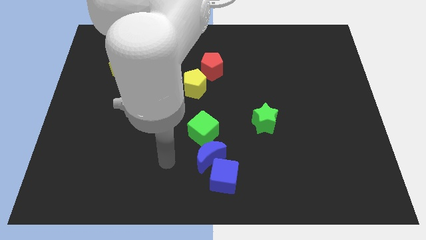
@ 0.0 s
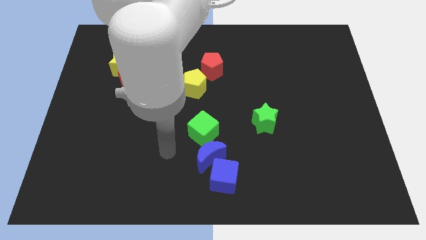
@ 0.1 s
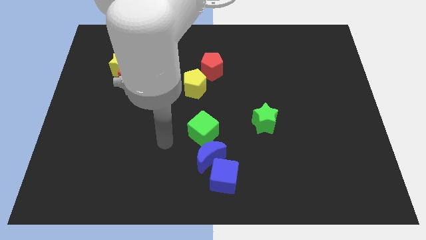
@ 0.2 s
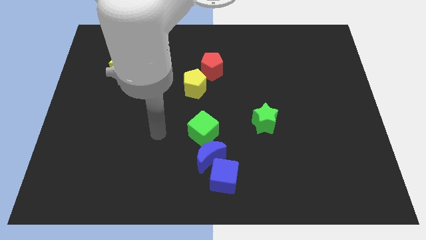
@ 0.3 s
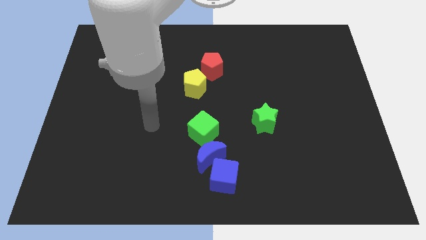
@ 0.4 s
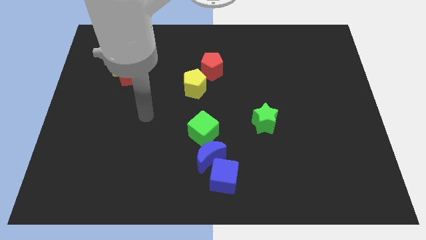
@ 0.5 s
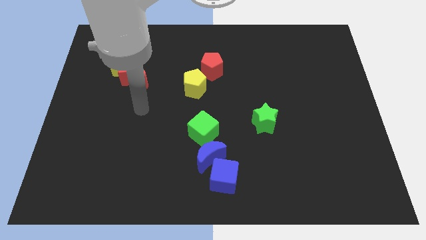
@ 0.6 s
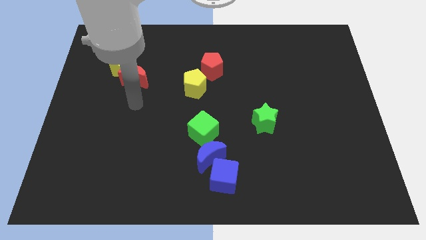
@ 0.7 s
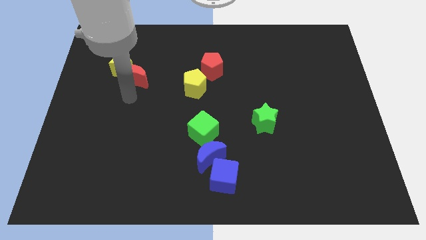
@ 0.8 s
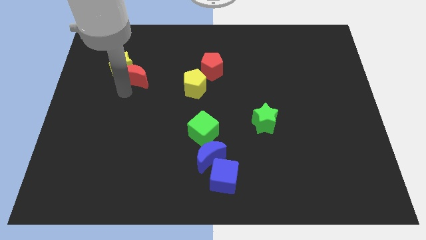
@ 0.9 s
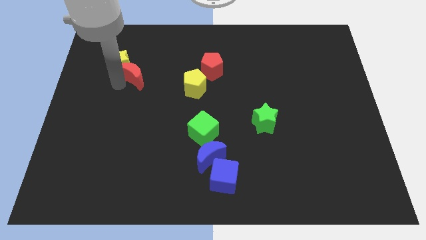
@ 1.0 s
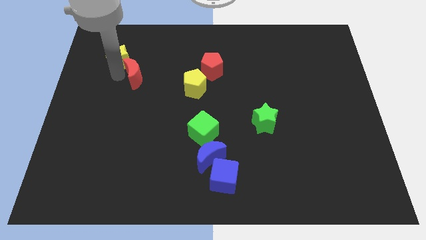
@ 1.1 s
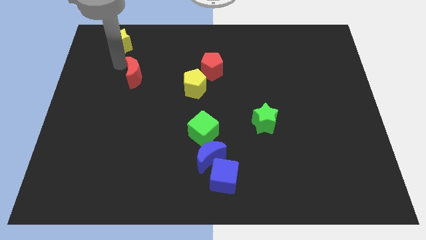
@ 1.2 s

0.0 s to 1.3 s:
move the red moon away from the yellow star

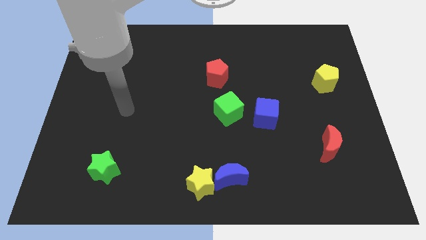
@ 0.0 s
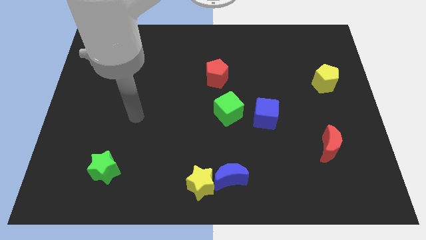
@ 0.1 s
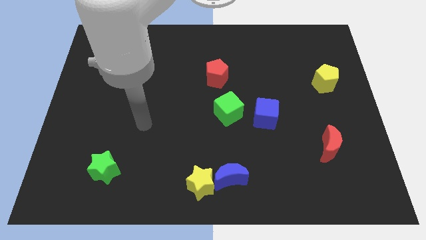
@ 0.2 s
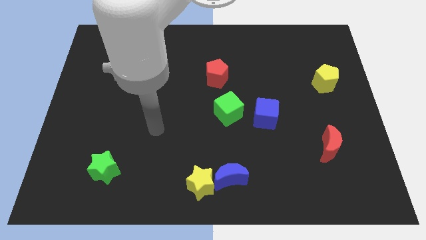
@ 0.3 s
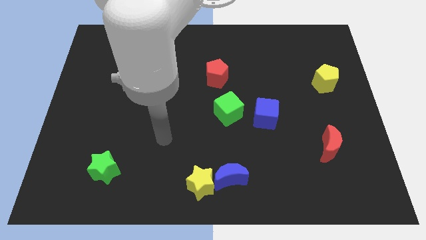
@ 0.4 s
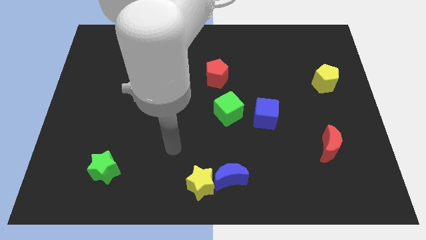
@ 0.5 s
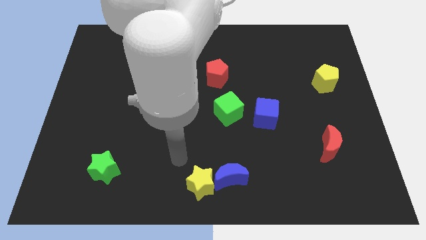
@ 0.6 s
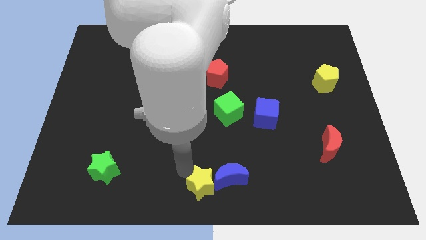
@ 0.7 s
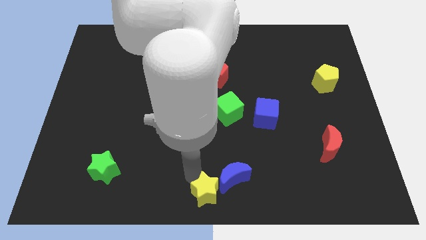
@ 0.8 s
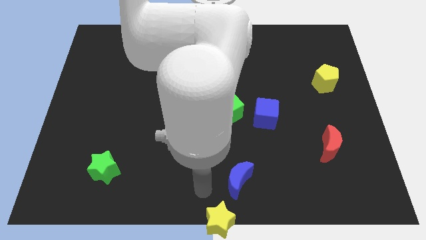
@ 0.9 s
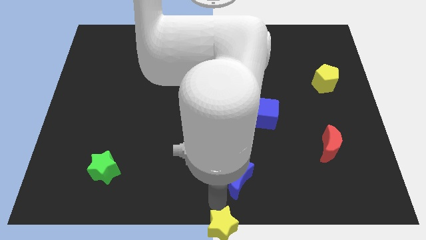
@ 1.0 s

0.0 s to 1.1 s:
move the blue moon away from the yellow star

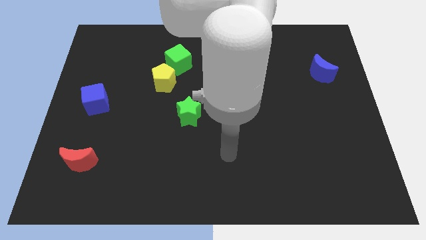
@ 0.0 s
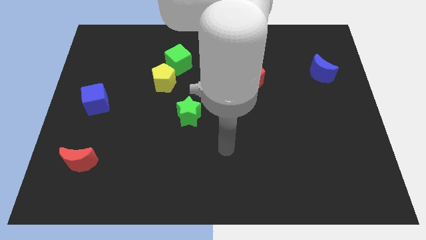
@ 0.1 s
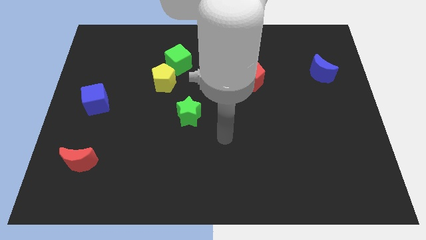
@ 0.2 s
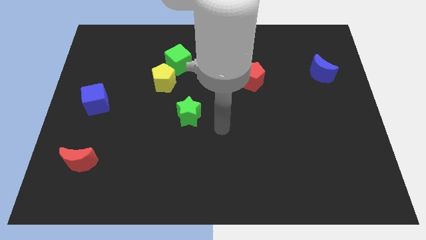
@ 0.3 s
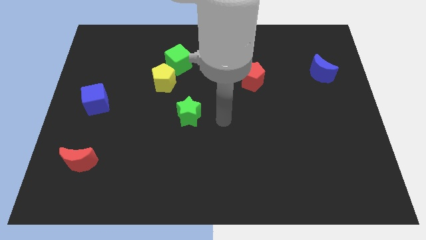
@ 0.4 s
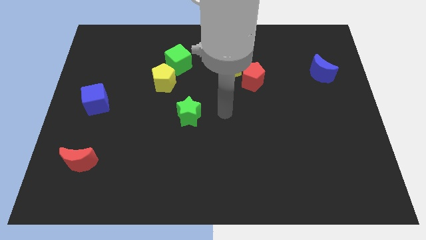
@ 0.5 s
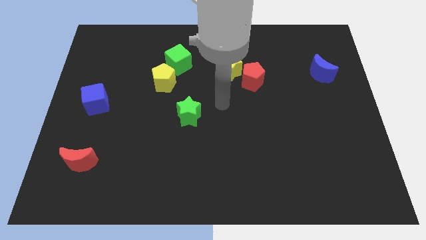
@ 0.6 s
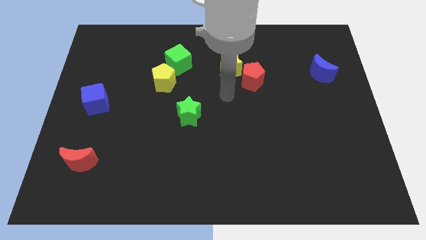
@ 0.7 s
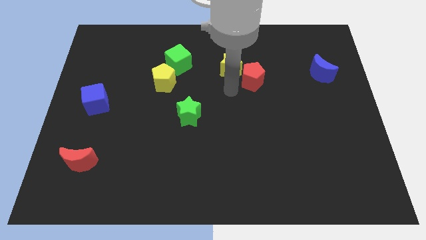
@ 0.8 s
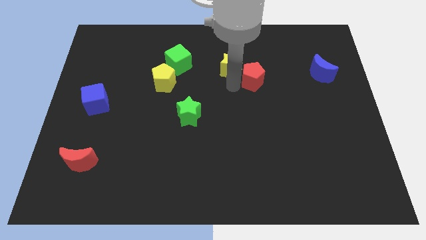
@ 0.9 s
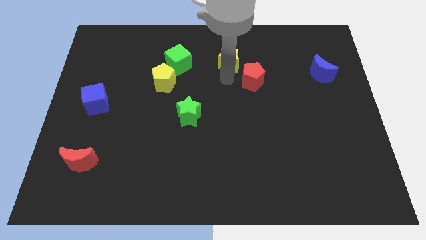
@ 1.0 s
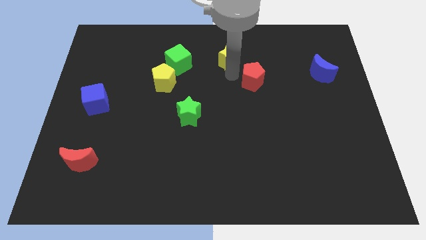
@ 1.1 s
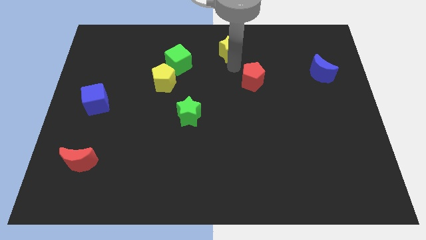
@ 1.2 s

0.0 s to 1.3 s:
separate the red pentagon from the yellow star

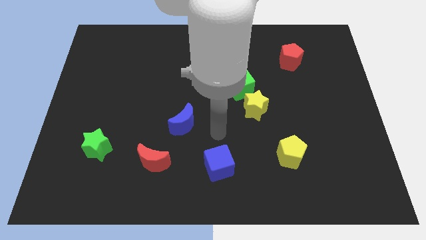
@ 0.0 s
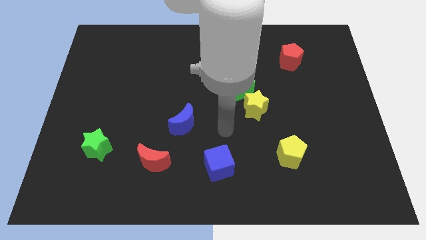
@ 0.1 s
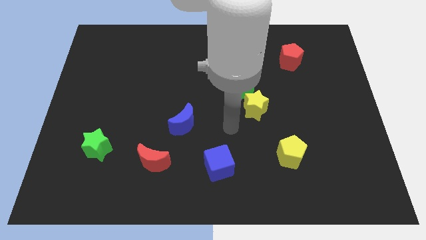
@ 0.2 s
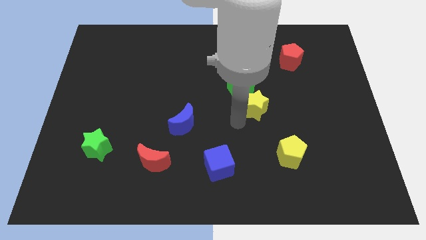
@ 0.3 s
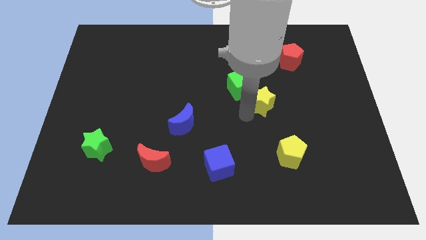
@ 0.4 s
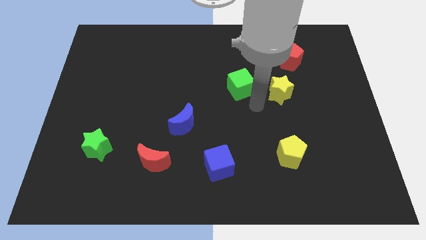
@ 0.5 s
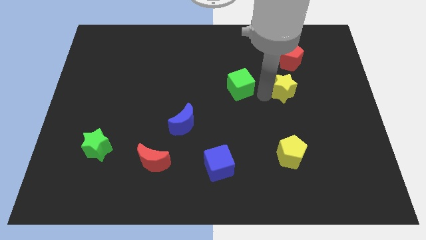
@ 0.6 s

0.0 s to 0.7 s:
move the green cube away from the yellow star

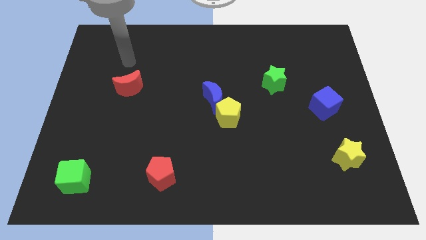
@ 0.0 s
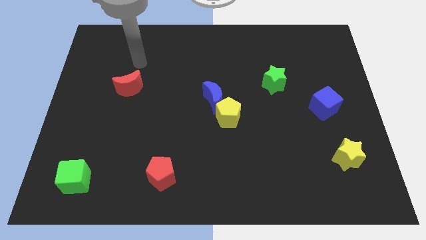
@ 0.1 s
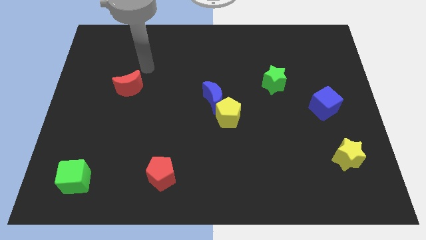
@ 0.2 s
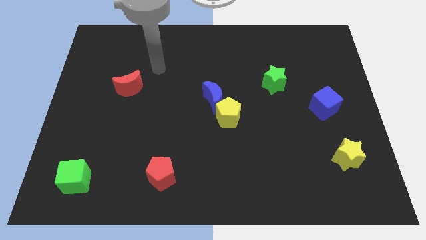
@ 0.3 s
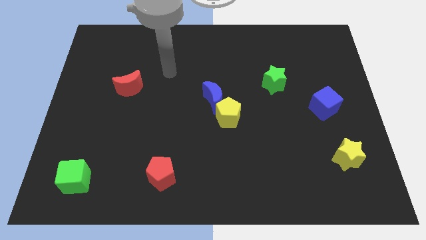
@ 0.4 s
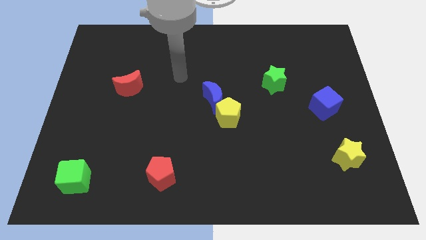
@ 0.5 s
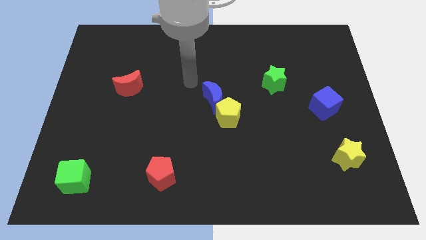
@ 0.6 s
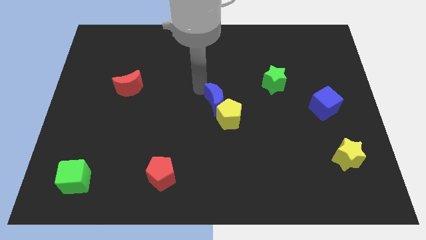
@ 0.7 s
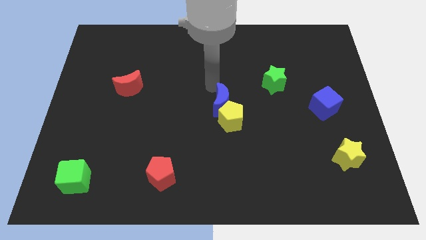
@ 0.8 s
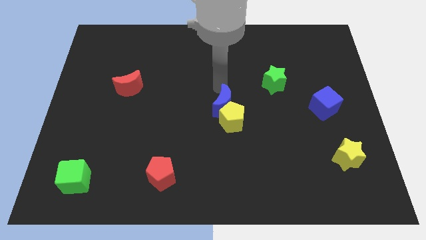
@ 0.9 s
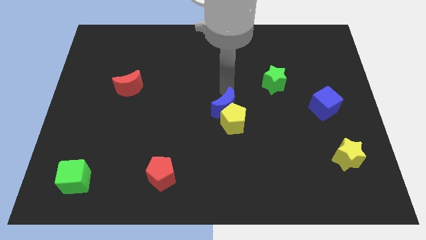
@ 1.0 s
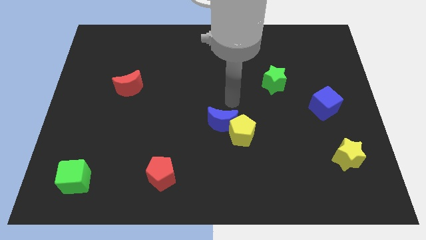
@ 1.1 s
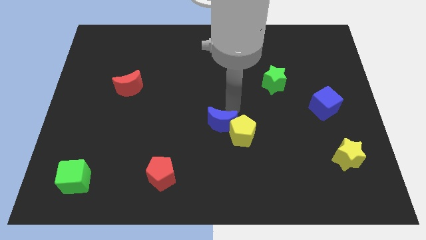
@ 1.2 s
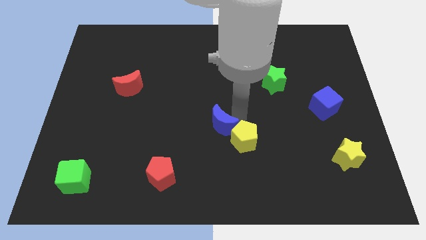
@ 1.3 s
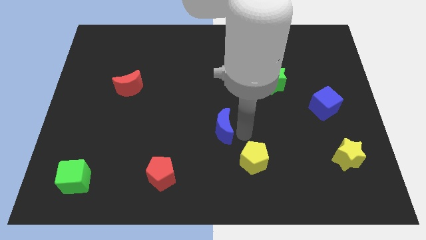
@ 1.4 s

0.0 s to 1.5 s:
move the blue moon away from the yellow pentagon

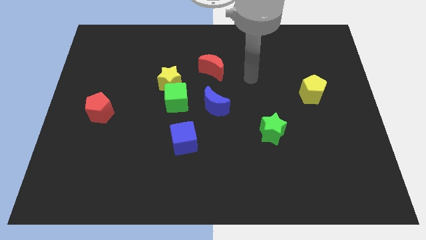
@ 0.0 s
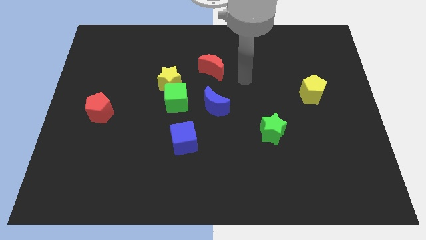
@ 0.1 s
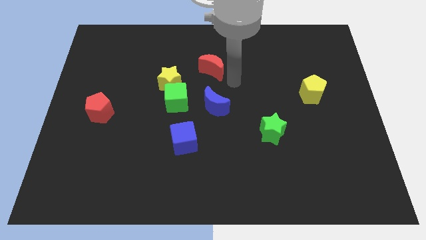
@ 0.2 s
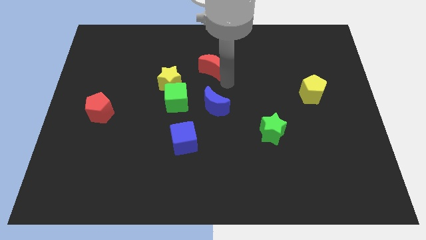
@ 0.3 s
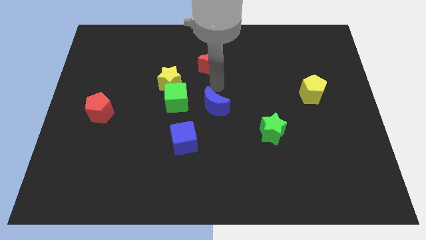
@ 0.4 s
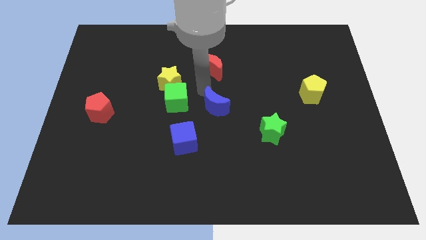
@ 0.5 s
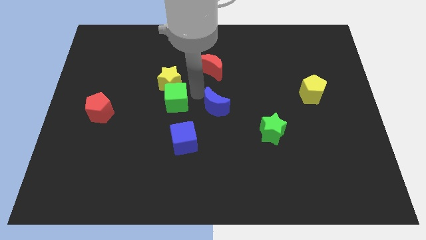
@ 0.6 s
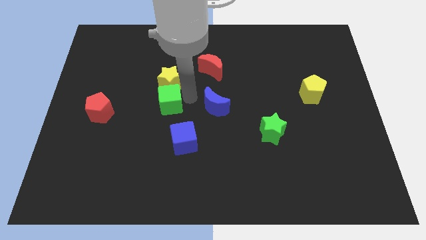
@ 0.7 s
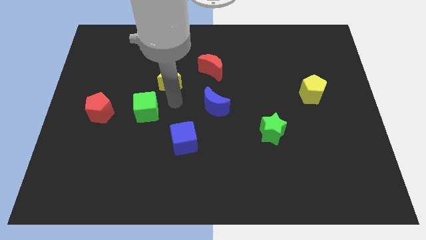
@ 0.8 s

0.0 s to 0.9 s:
move the yellow star away from the green cube

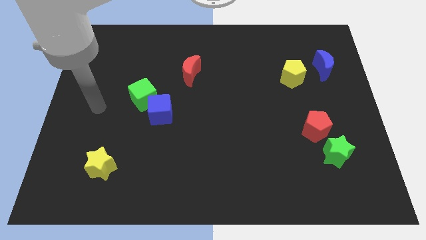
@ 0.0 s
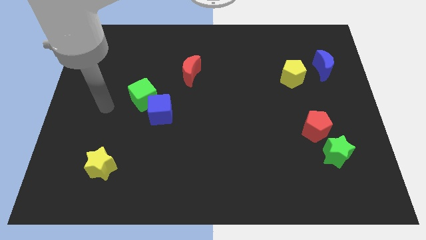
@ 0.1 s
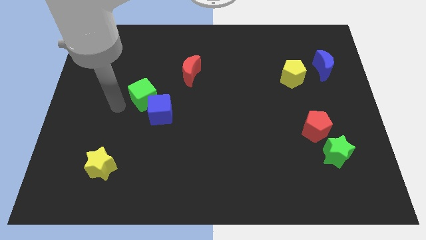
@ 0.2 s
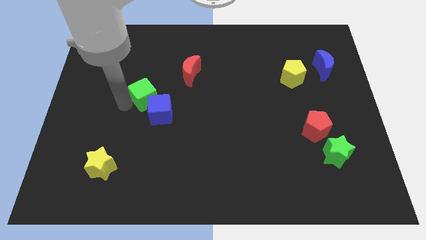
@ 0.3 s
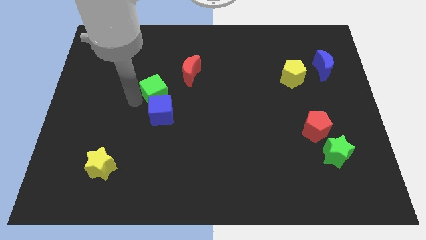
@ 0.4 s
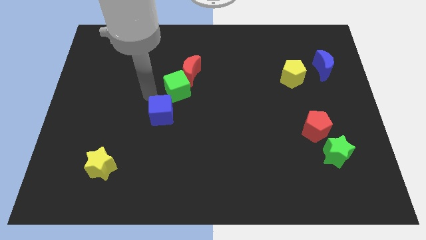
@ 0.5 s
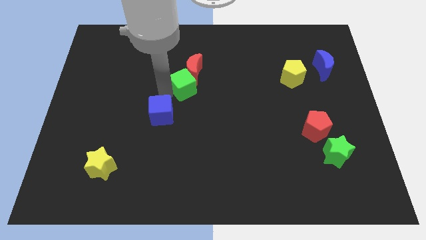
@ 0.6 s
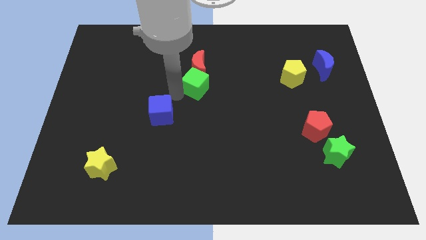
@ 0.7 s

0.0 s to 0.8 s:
pull the blue cube apart from the green cube

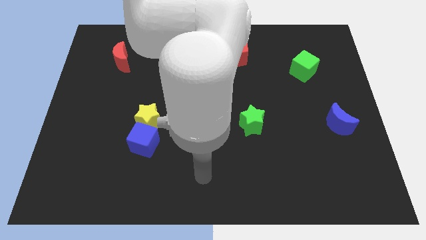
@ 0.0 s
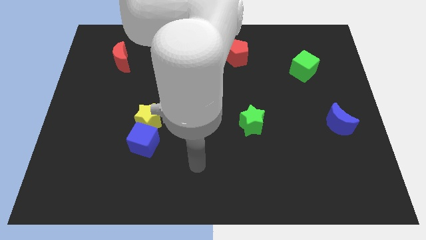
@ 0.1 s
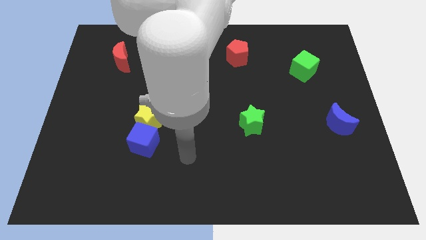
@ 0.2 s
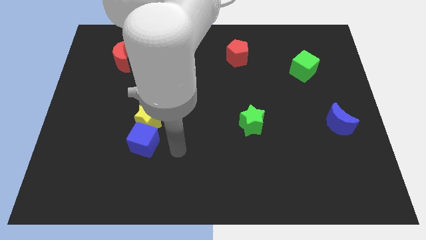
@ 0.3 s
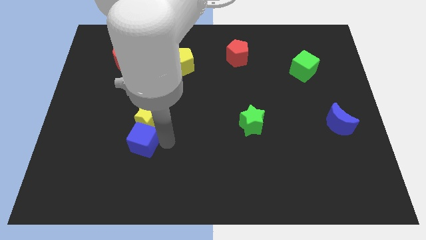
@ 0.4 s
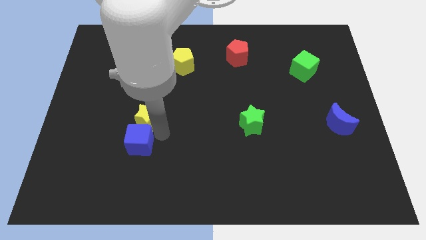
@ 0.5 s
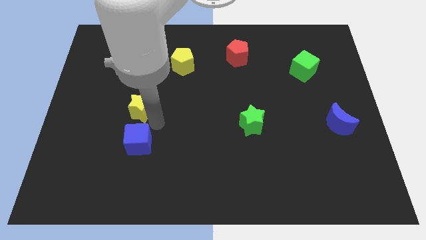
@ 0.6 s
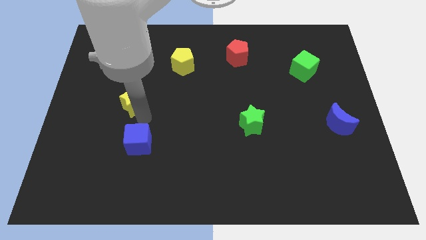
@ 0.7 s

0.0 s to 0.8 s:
move the blue cube away from the yellow star

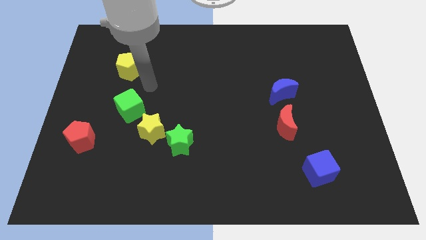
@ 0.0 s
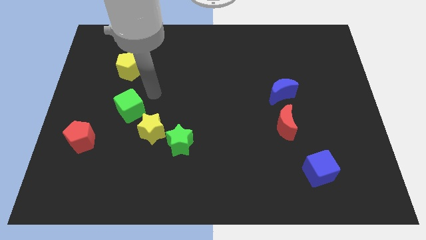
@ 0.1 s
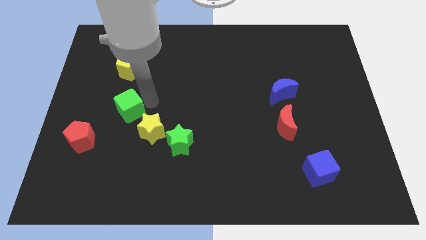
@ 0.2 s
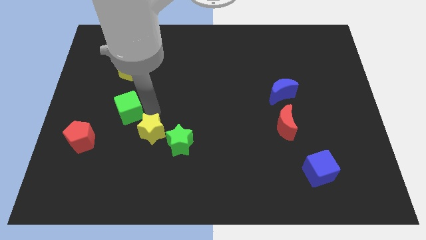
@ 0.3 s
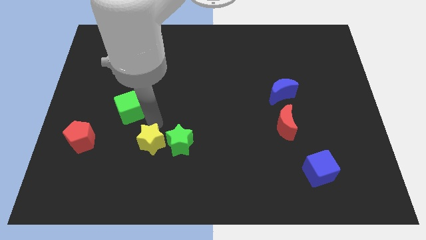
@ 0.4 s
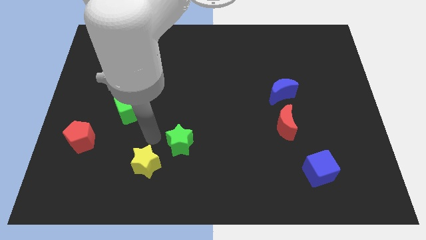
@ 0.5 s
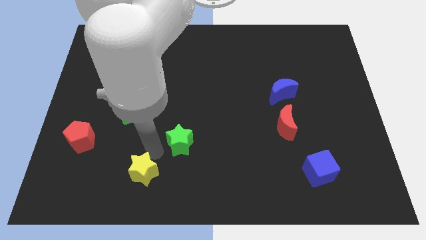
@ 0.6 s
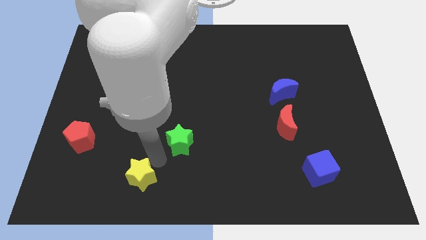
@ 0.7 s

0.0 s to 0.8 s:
pull the green star apart from the yellow star
